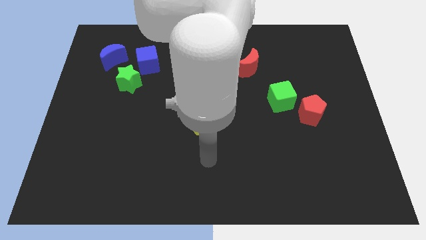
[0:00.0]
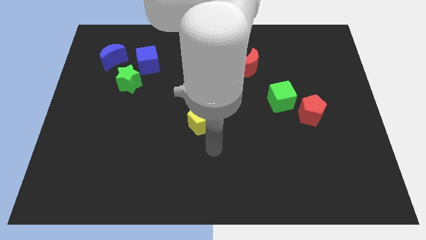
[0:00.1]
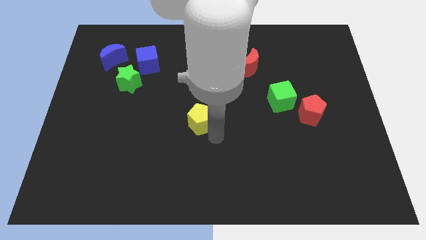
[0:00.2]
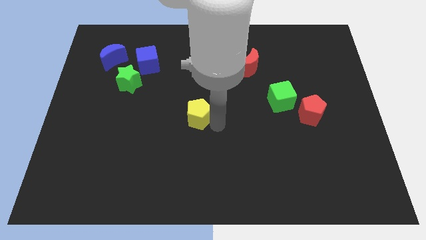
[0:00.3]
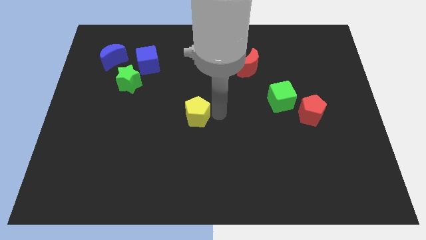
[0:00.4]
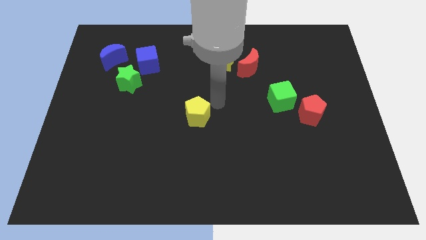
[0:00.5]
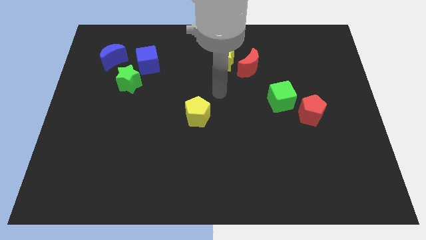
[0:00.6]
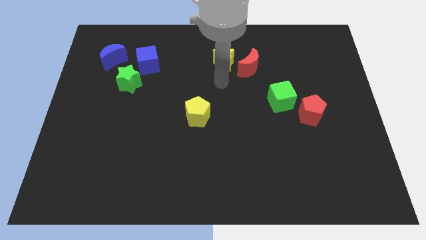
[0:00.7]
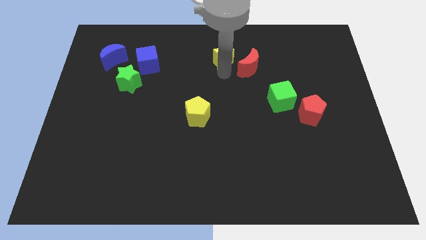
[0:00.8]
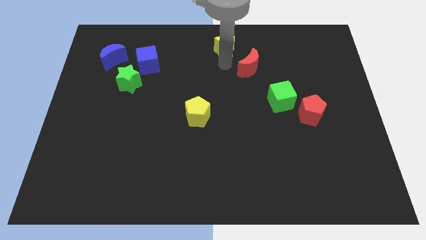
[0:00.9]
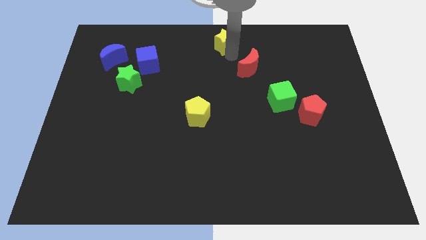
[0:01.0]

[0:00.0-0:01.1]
pull the red moon apart from the yellow star

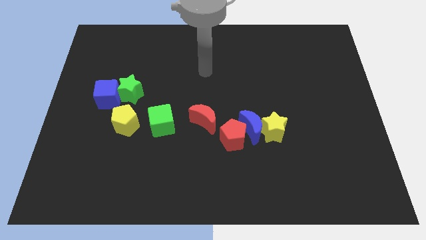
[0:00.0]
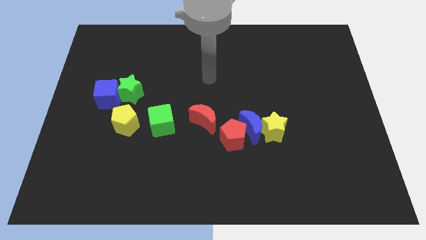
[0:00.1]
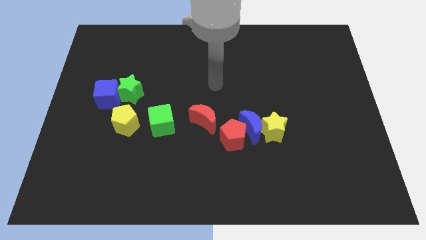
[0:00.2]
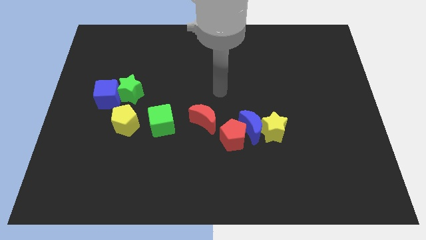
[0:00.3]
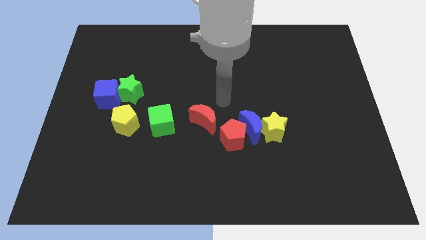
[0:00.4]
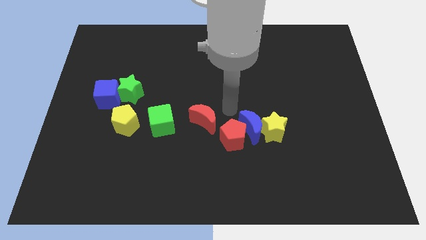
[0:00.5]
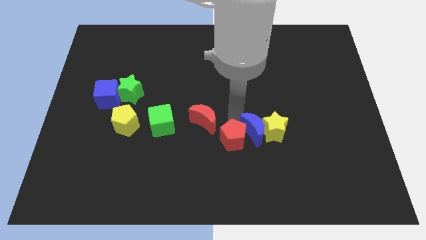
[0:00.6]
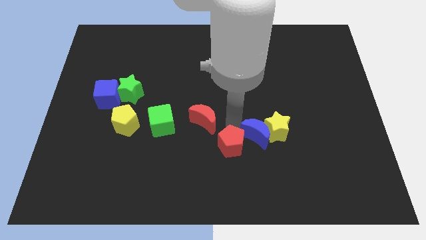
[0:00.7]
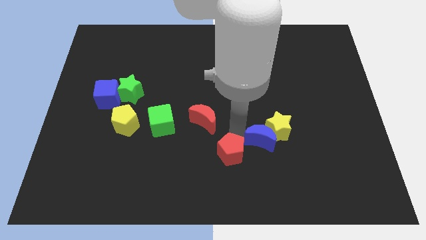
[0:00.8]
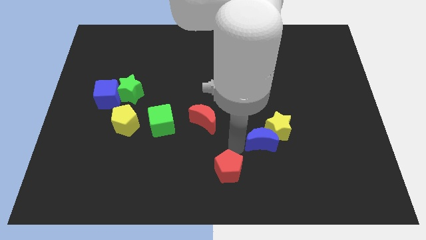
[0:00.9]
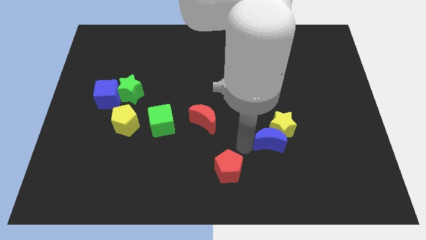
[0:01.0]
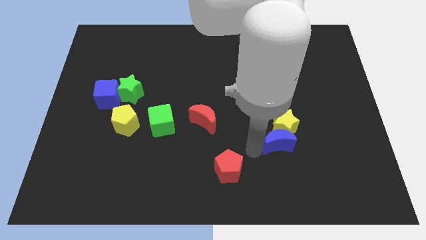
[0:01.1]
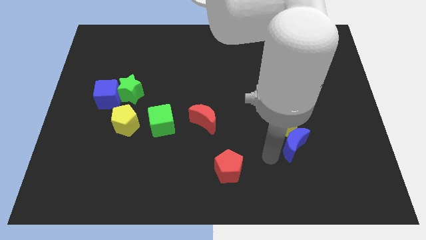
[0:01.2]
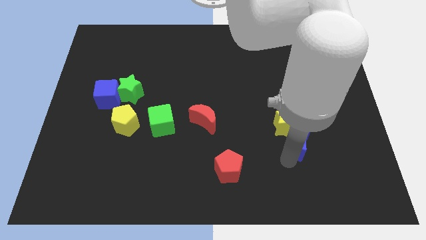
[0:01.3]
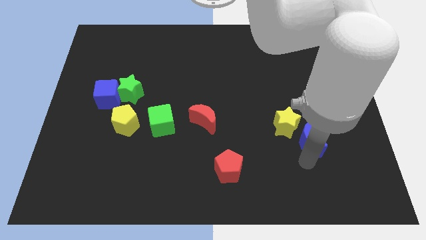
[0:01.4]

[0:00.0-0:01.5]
separate the blue moon from the yellow star and red pentagon

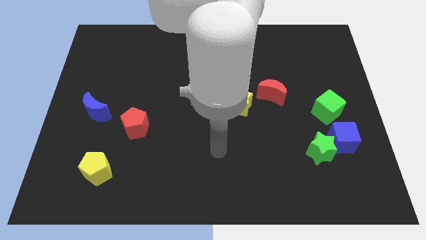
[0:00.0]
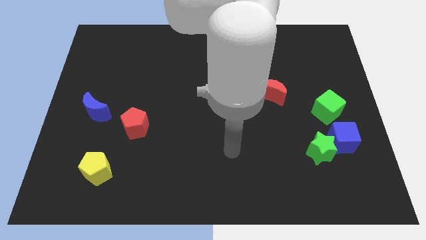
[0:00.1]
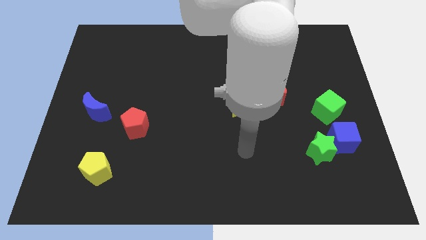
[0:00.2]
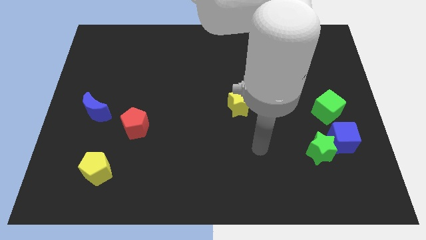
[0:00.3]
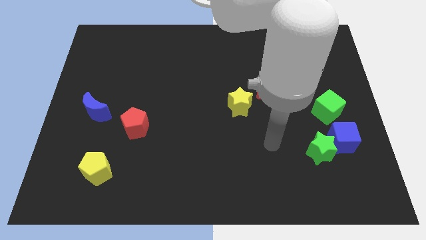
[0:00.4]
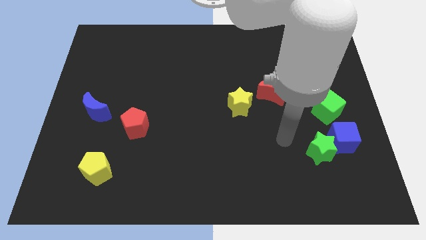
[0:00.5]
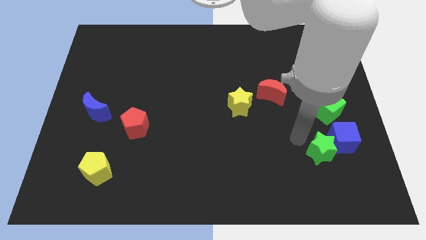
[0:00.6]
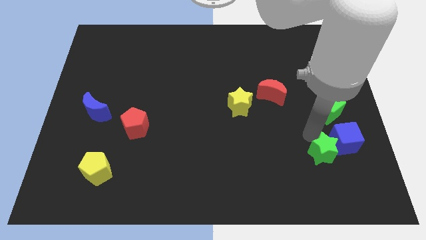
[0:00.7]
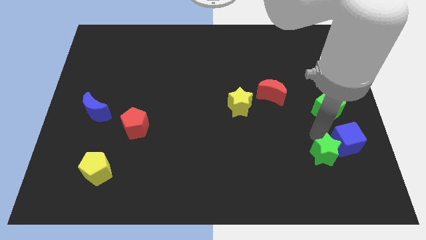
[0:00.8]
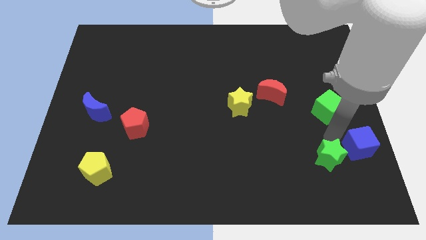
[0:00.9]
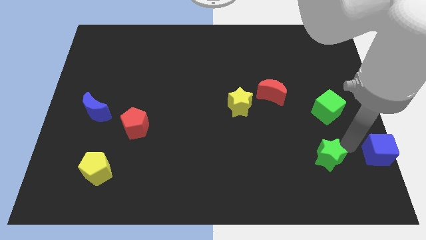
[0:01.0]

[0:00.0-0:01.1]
separate the green star from the blue cube

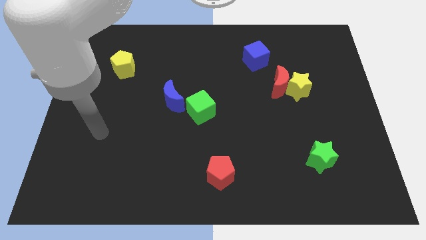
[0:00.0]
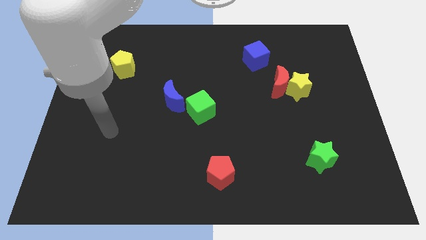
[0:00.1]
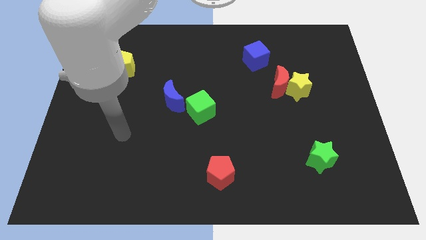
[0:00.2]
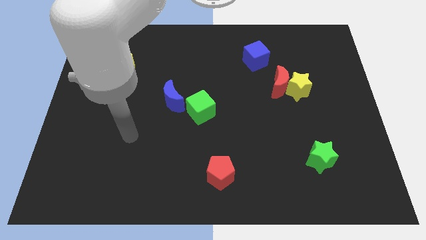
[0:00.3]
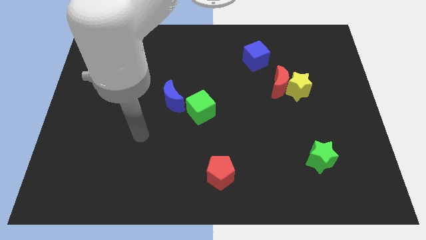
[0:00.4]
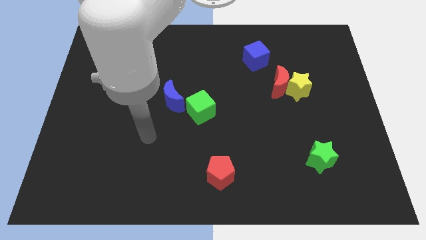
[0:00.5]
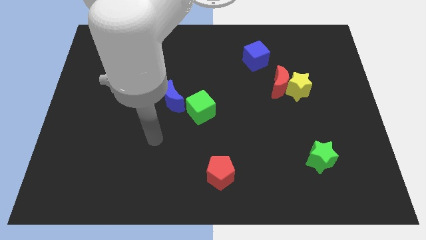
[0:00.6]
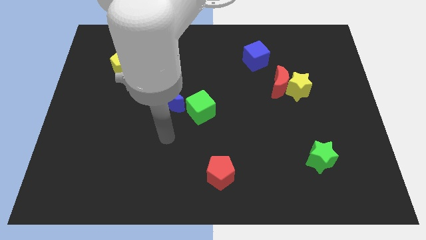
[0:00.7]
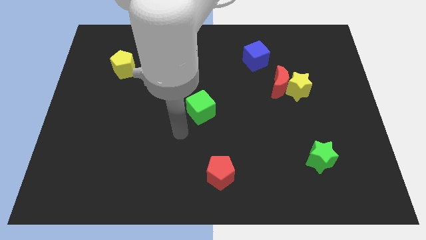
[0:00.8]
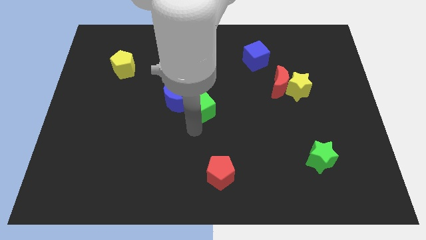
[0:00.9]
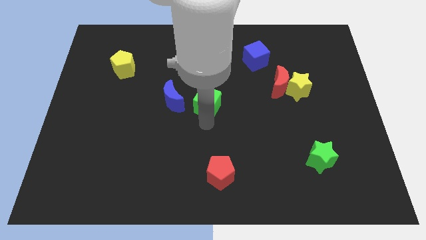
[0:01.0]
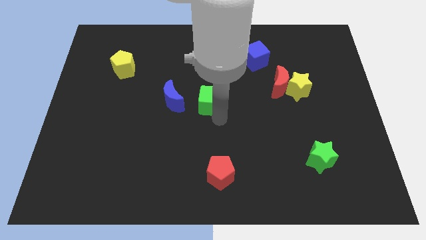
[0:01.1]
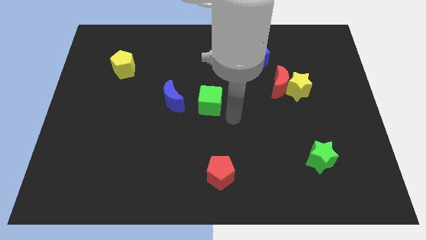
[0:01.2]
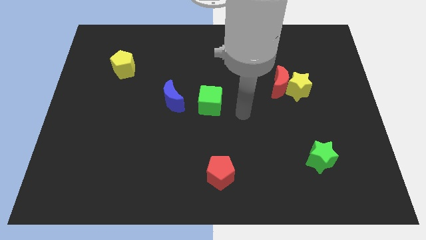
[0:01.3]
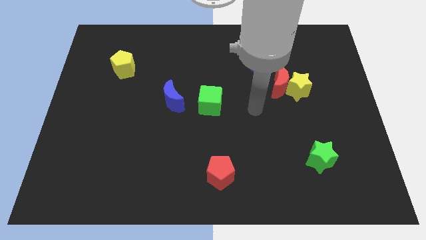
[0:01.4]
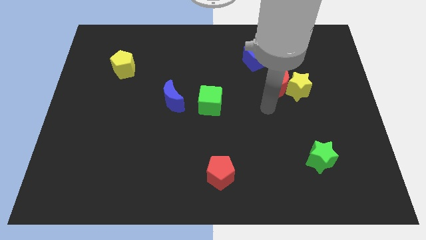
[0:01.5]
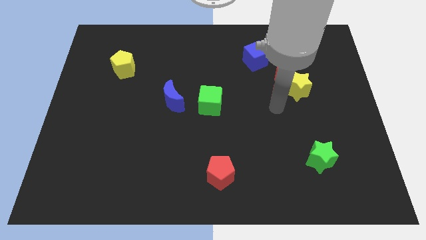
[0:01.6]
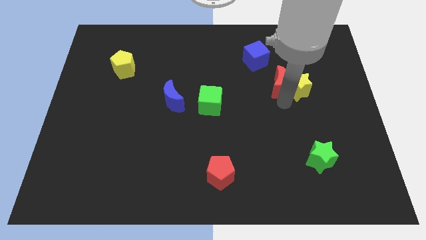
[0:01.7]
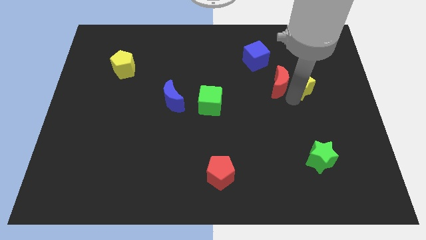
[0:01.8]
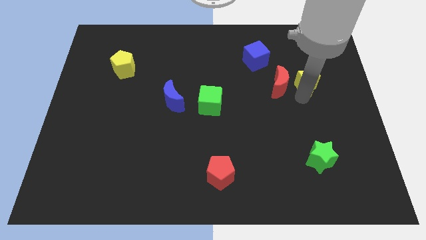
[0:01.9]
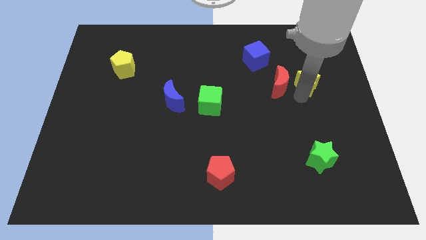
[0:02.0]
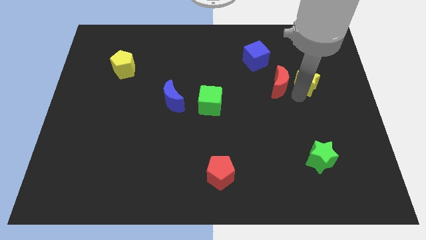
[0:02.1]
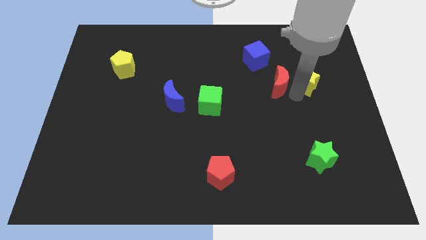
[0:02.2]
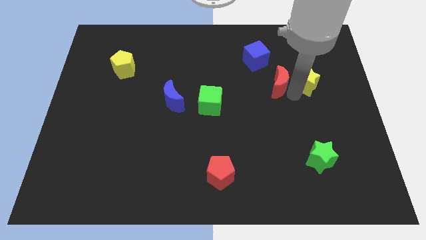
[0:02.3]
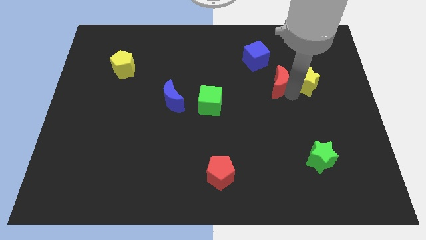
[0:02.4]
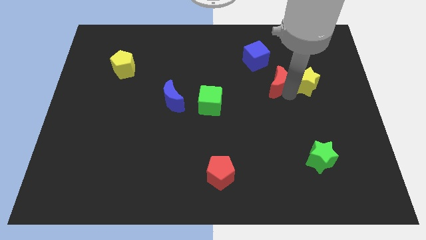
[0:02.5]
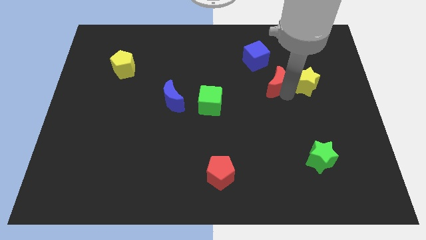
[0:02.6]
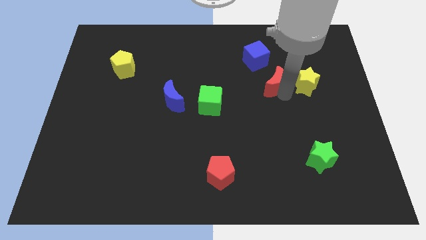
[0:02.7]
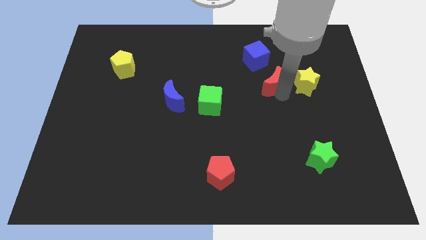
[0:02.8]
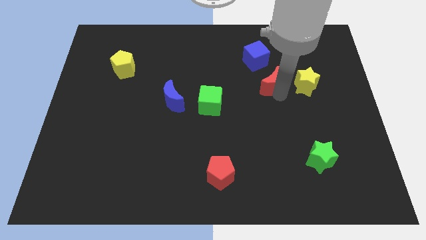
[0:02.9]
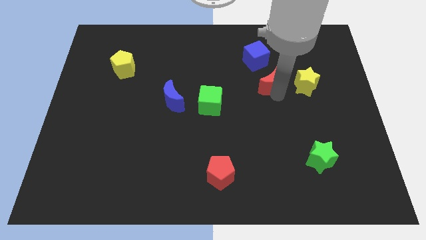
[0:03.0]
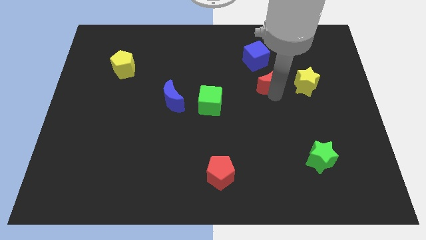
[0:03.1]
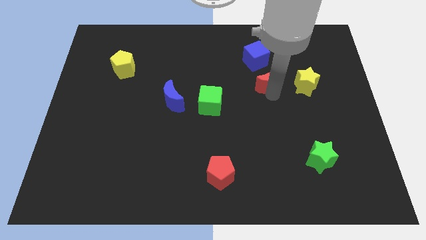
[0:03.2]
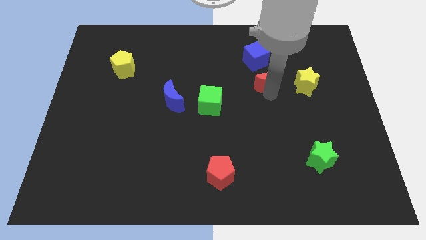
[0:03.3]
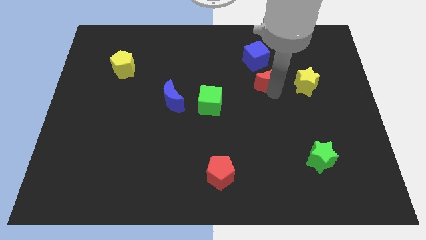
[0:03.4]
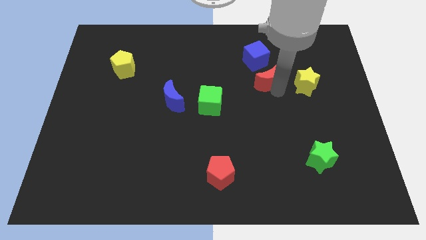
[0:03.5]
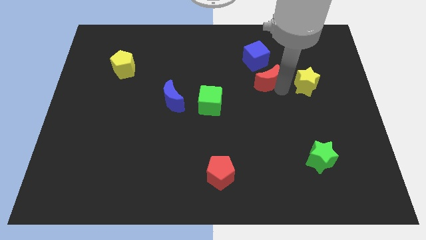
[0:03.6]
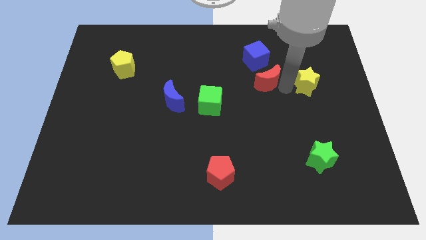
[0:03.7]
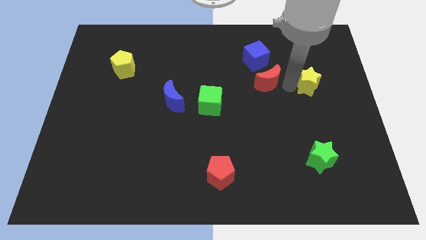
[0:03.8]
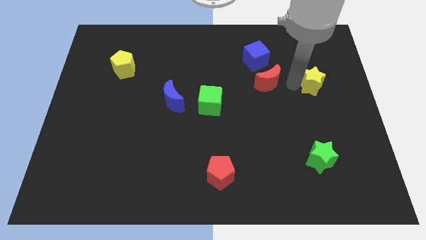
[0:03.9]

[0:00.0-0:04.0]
separate the red moon from the yellow star

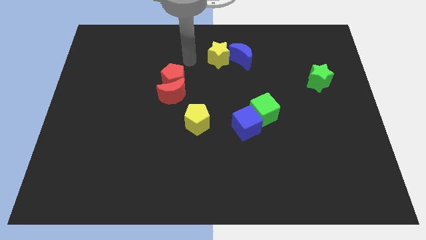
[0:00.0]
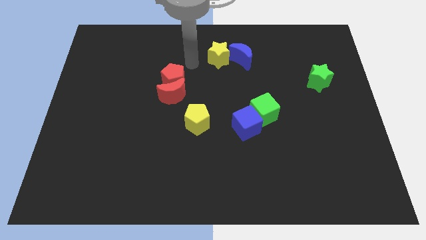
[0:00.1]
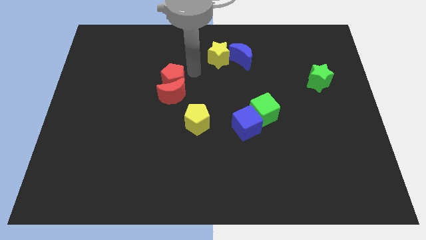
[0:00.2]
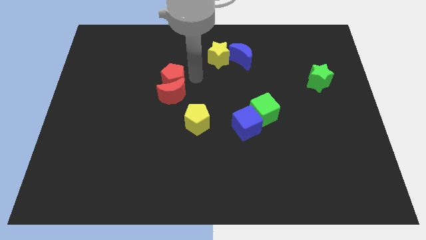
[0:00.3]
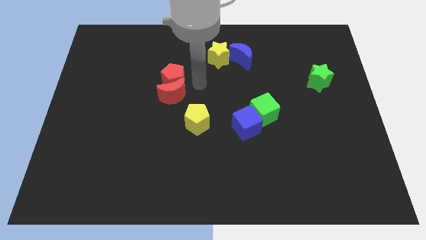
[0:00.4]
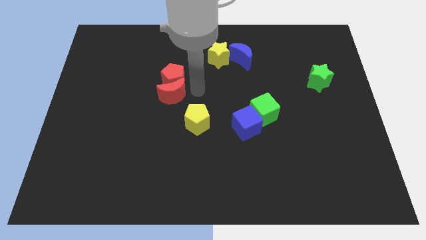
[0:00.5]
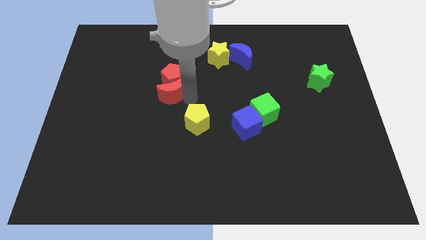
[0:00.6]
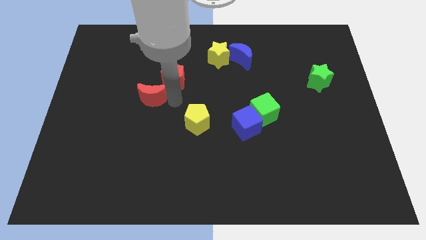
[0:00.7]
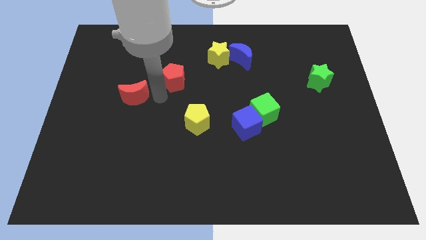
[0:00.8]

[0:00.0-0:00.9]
pull the red pentagon apart from the red moon

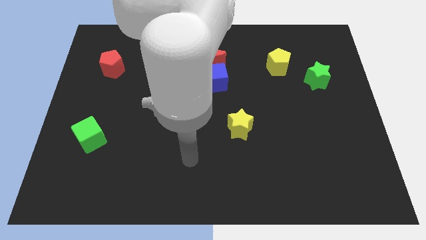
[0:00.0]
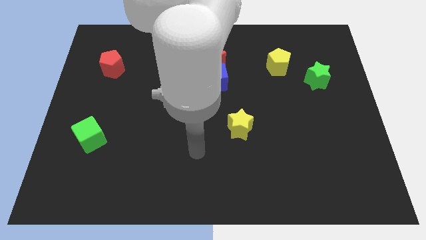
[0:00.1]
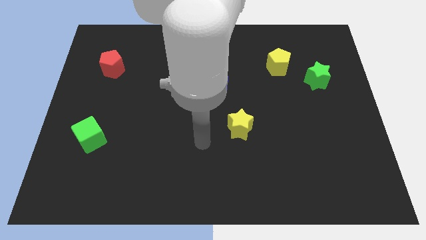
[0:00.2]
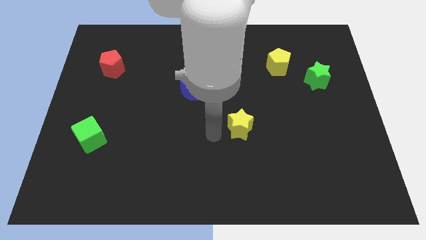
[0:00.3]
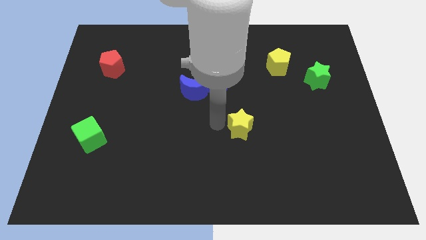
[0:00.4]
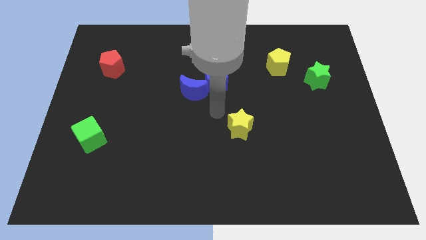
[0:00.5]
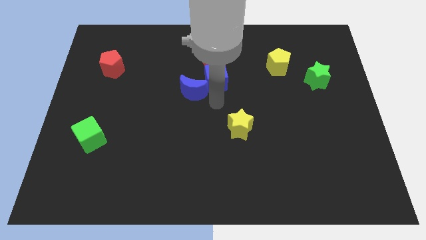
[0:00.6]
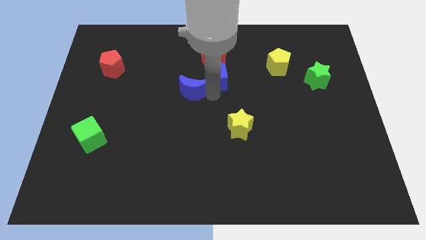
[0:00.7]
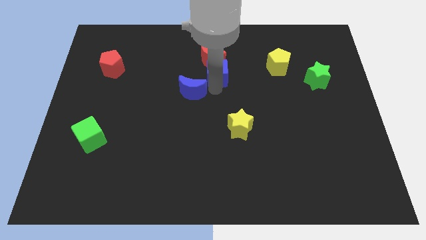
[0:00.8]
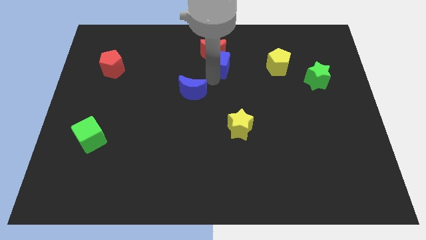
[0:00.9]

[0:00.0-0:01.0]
pull the blue moon apart from the blue cube
